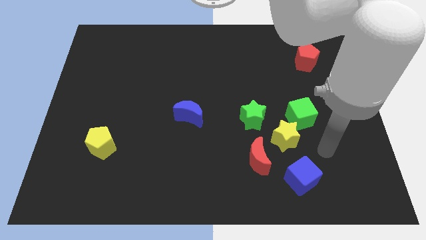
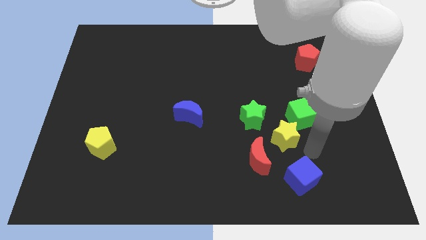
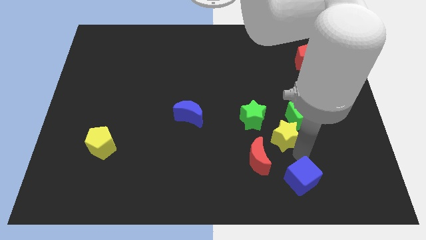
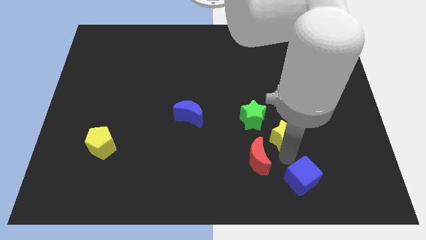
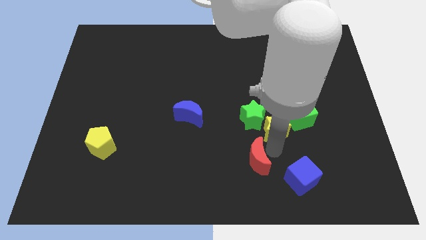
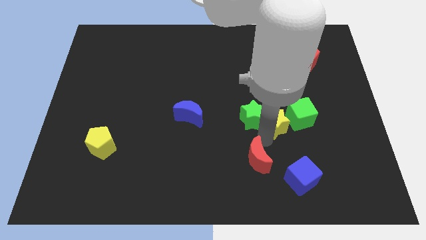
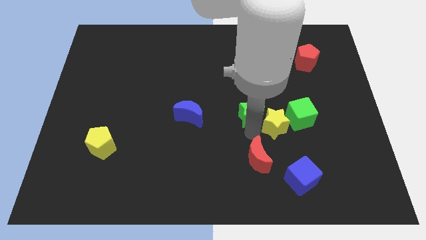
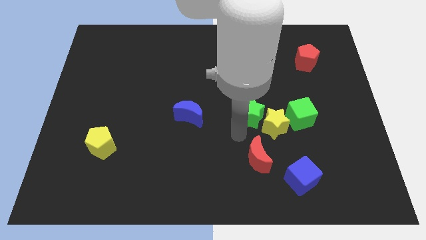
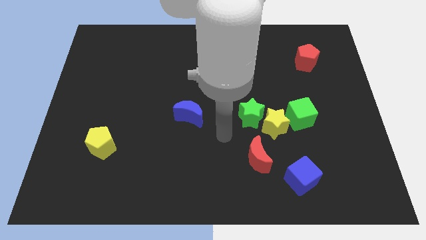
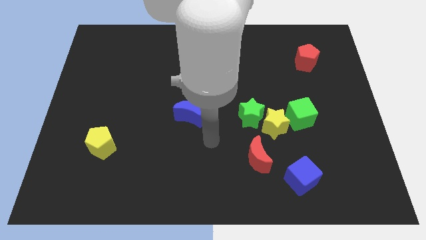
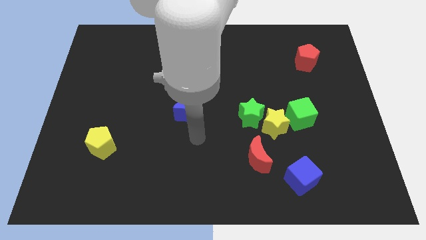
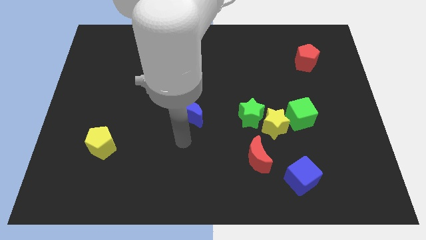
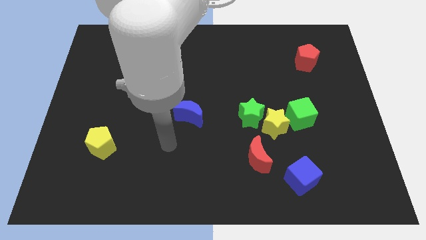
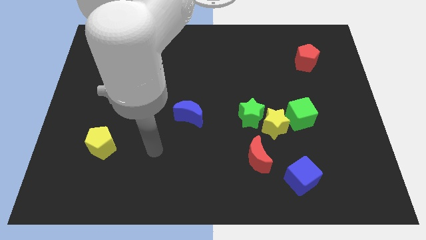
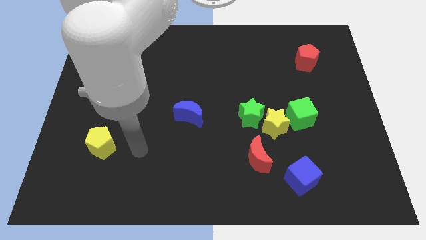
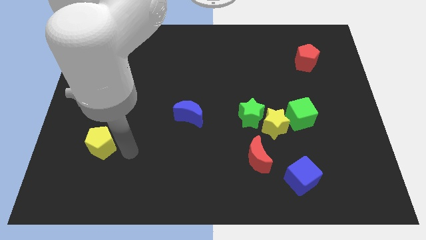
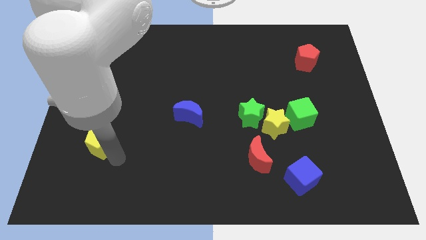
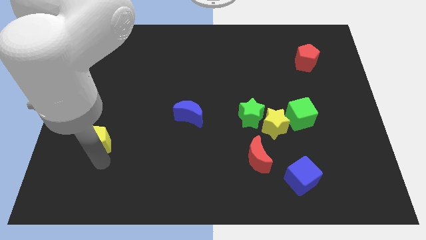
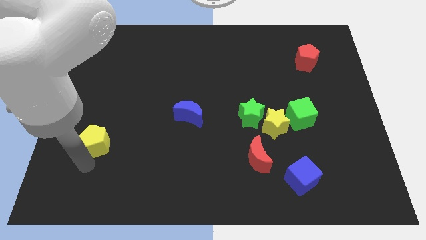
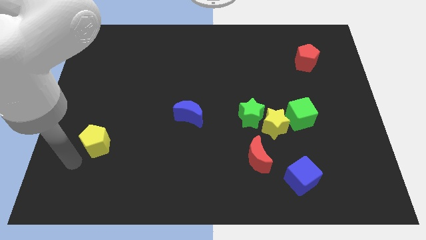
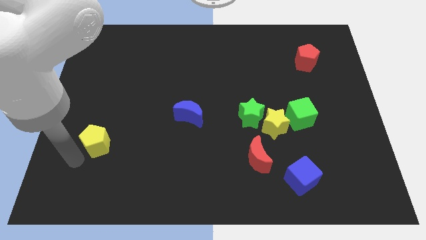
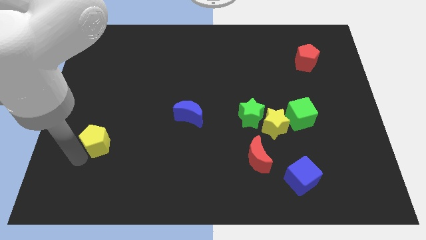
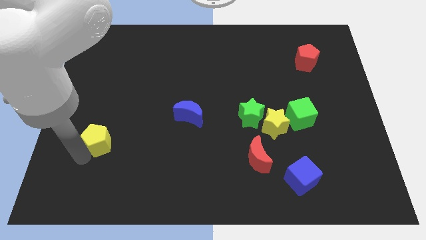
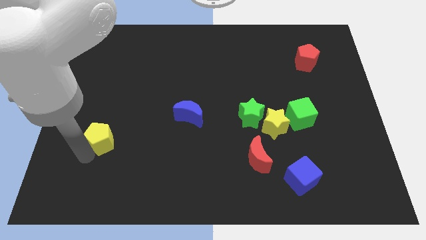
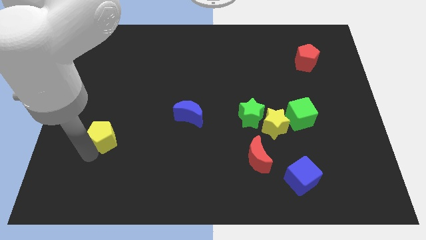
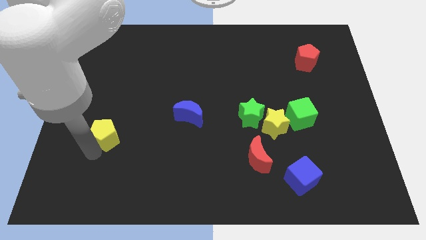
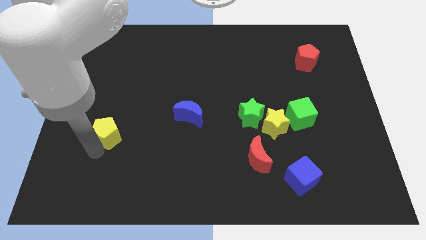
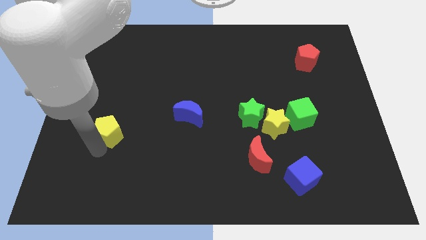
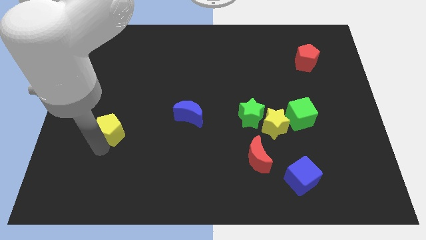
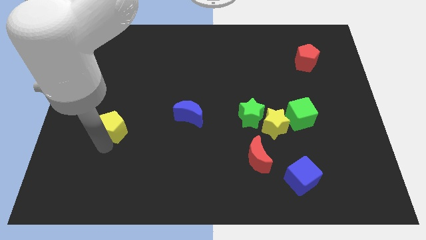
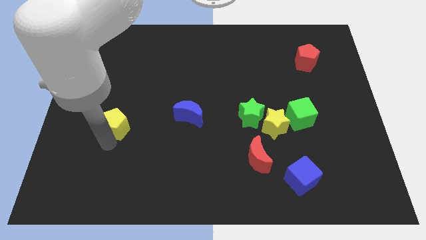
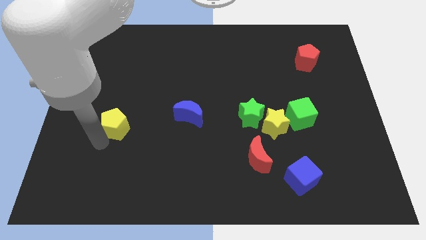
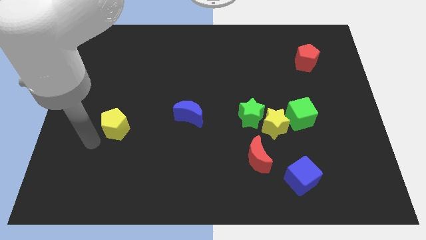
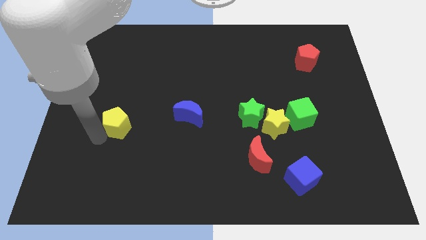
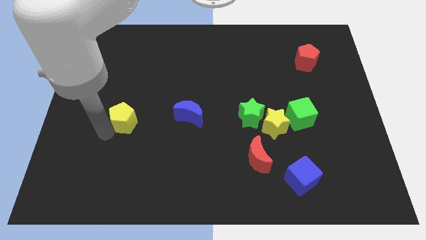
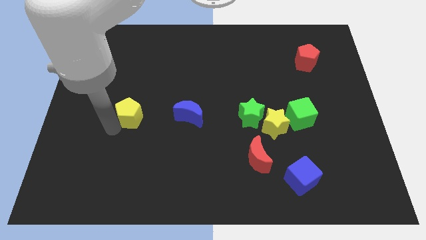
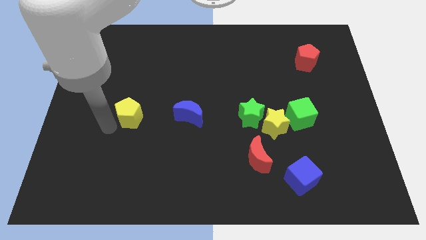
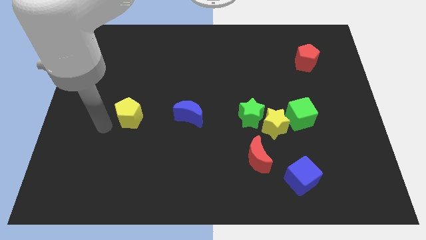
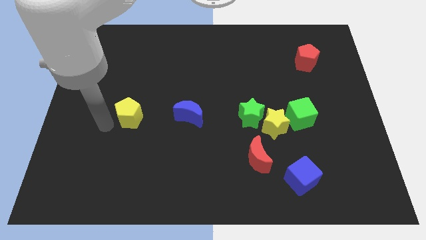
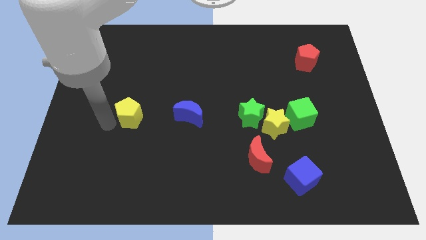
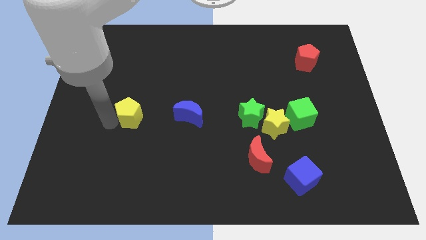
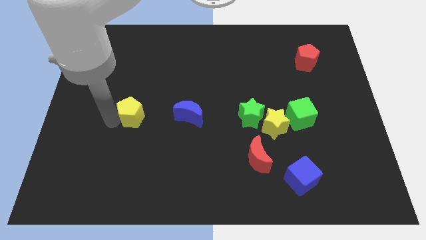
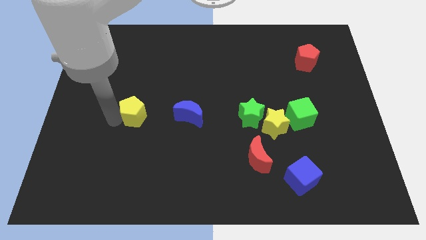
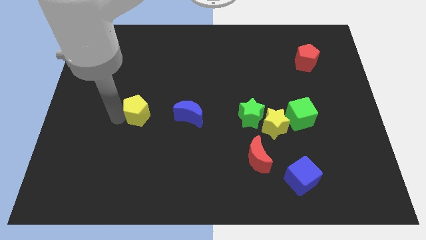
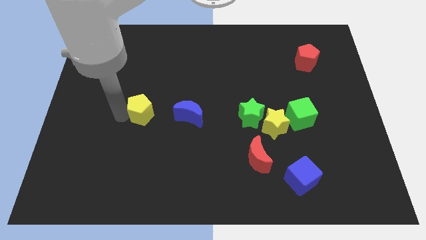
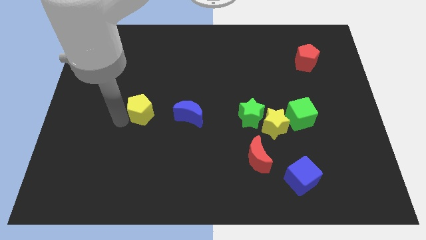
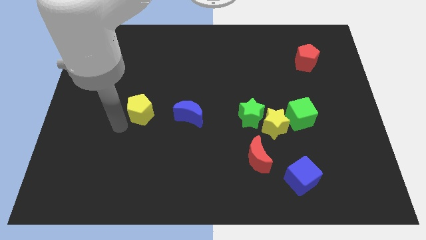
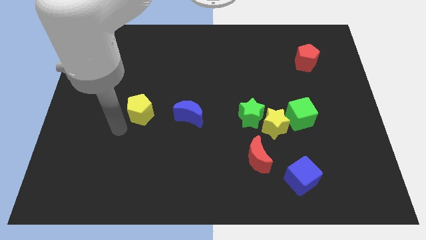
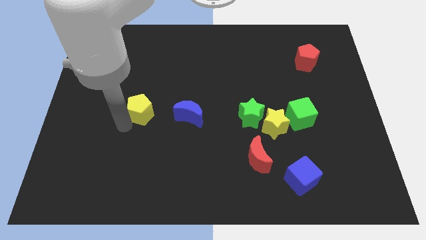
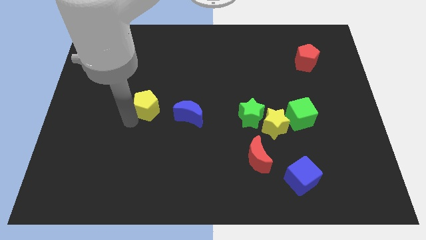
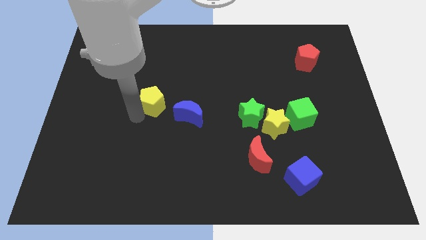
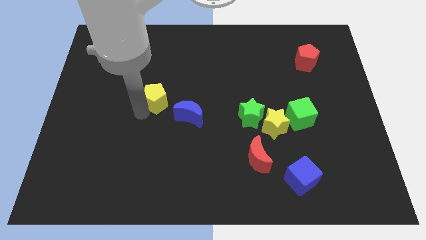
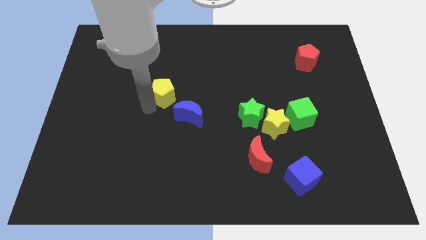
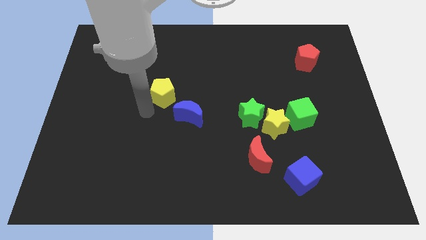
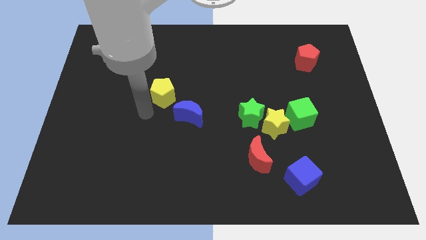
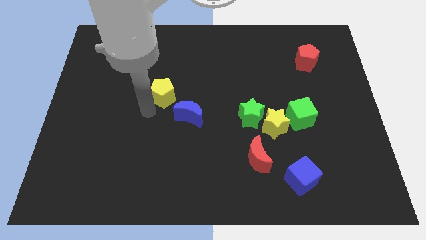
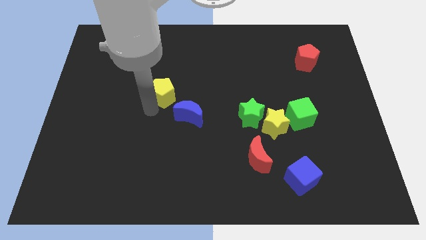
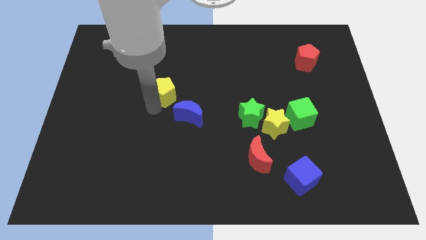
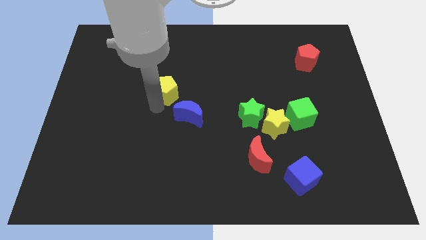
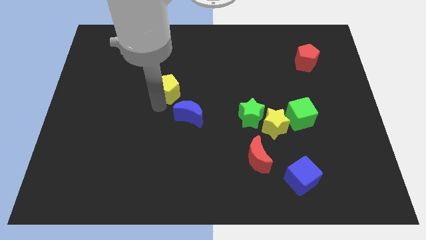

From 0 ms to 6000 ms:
slide the yellow pentagon upwards and right

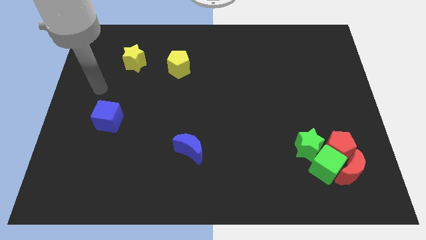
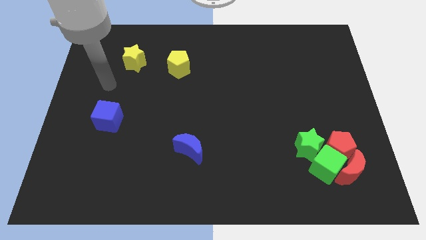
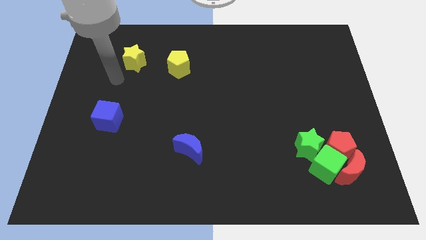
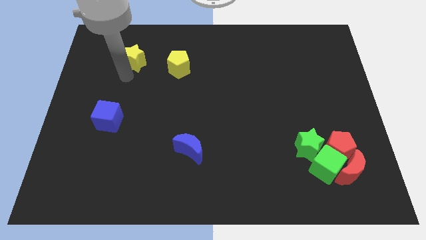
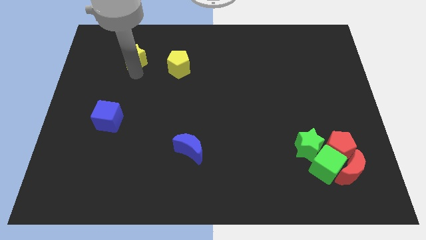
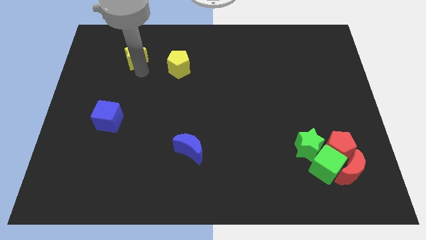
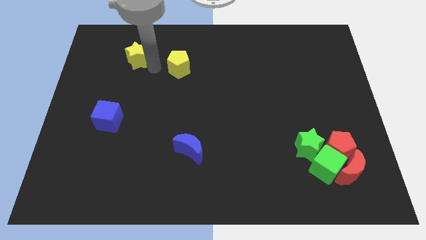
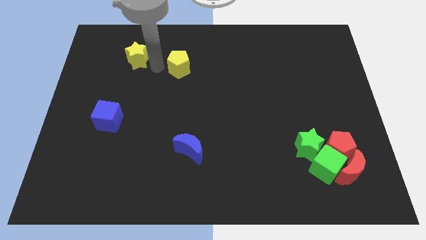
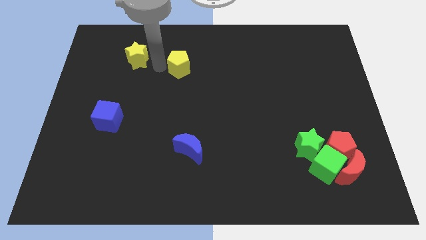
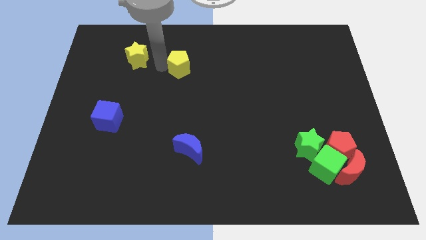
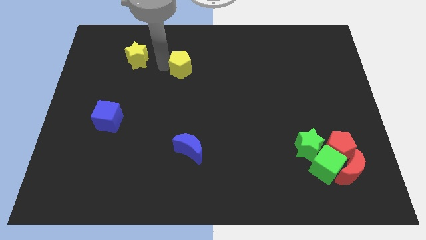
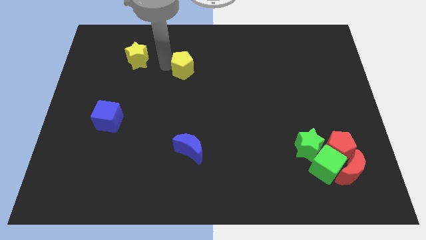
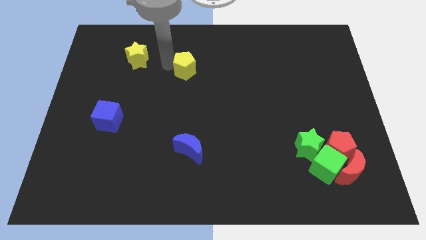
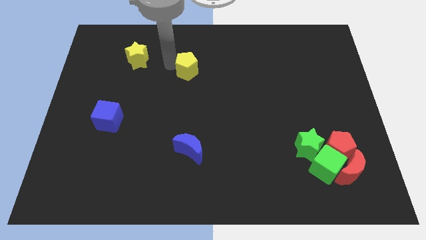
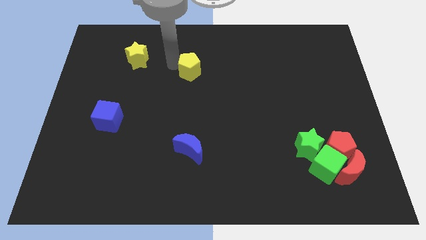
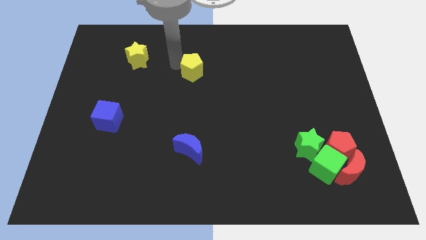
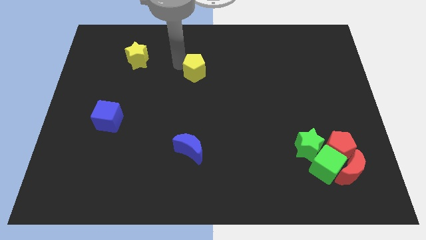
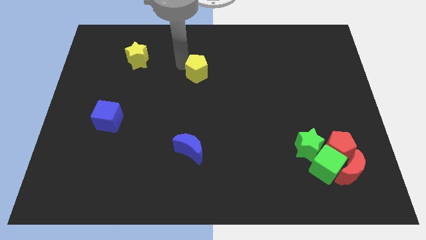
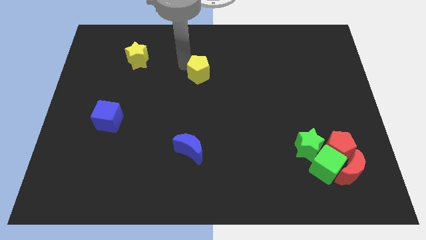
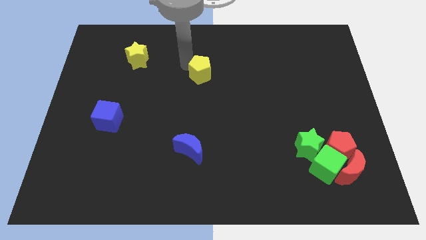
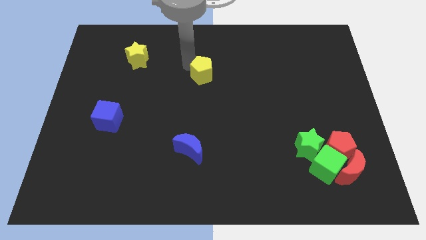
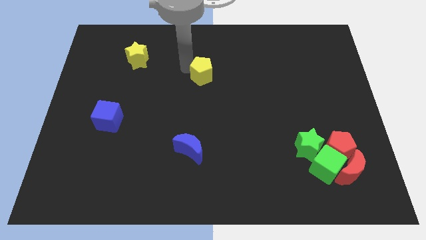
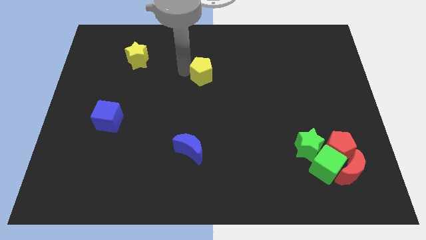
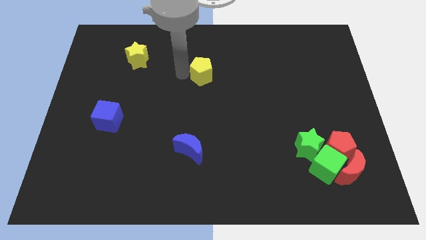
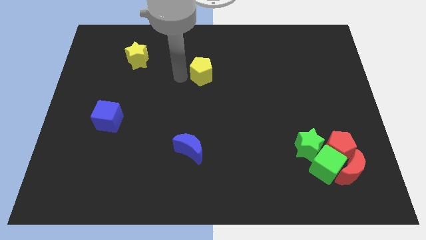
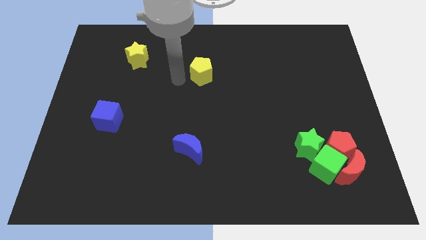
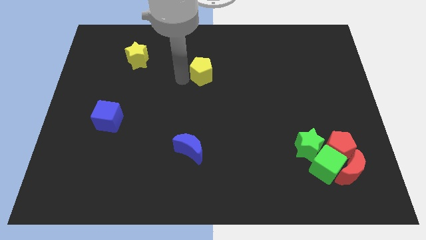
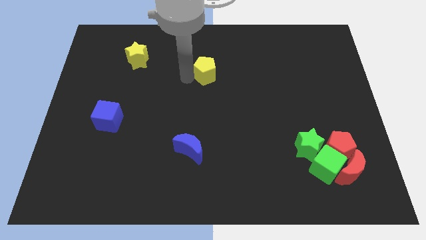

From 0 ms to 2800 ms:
push the yellow pentagon a bit to the right
